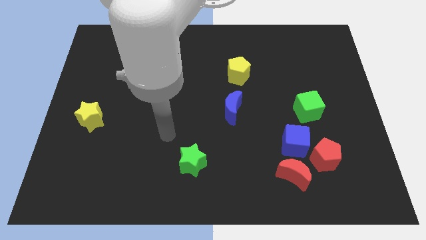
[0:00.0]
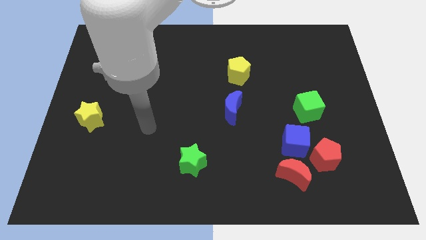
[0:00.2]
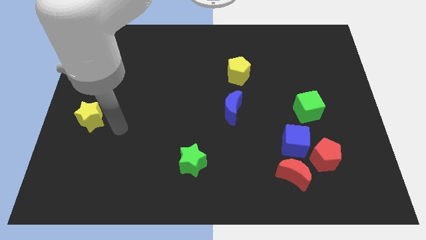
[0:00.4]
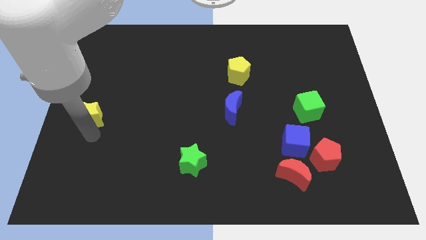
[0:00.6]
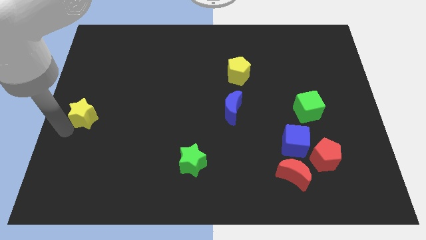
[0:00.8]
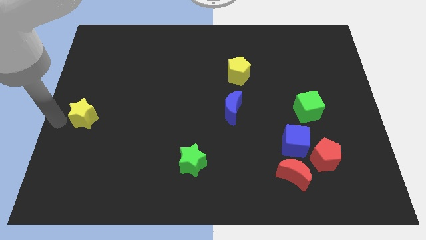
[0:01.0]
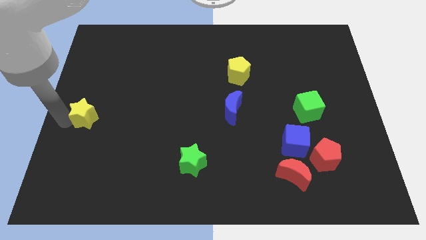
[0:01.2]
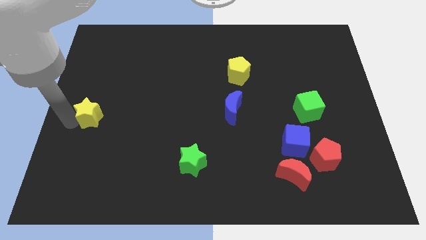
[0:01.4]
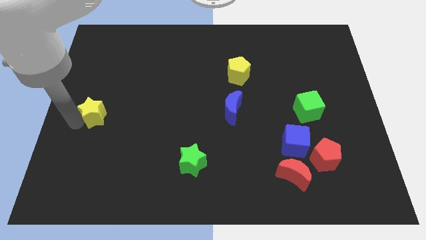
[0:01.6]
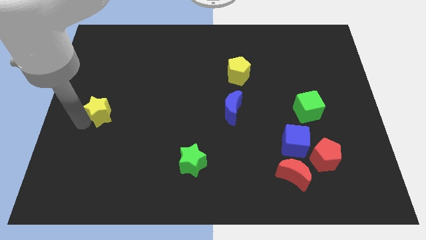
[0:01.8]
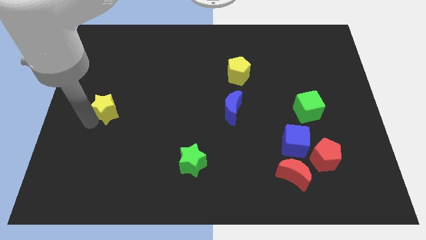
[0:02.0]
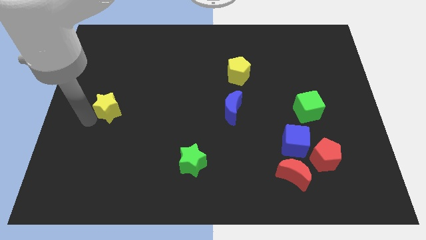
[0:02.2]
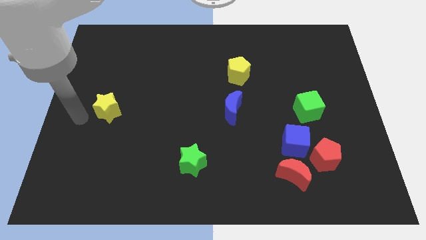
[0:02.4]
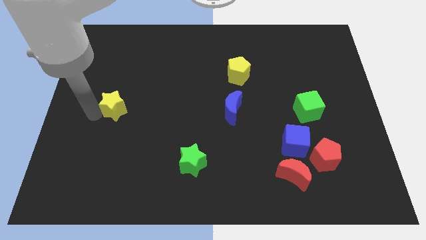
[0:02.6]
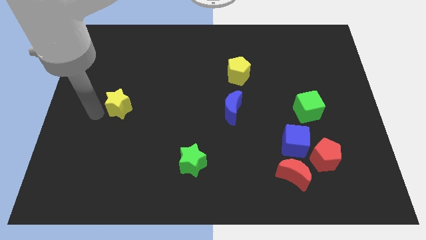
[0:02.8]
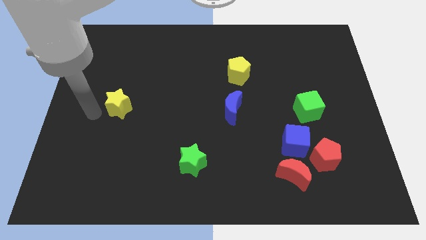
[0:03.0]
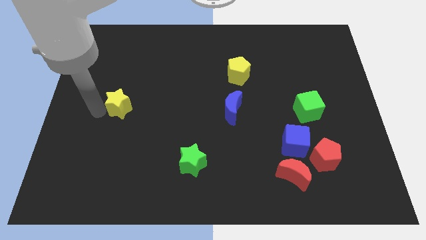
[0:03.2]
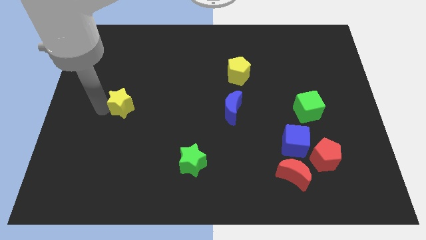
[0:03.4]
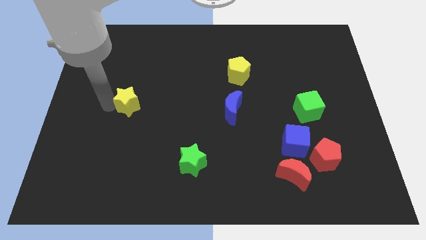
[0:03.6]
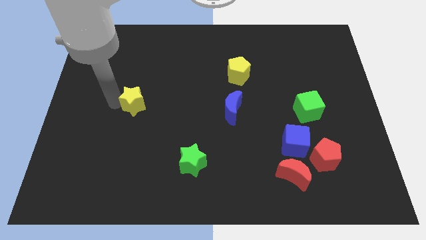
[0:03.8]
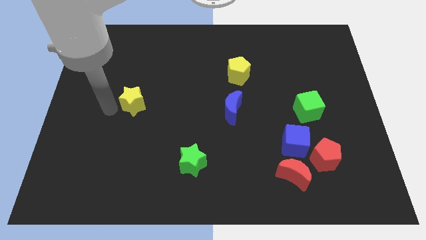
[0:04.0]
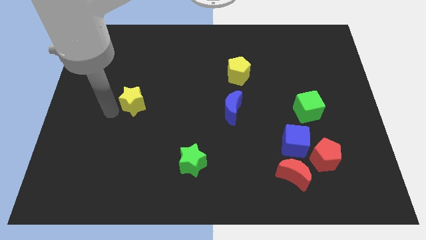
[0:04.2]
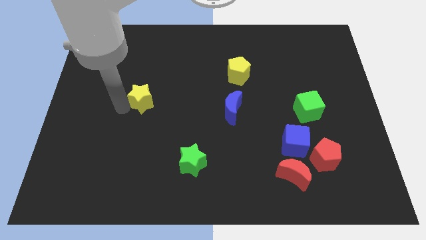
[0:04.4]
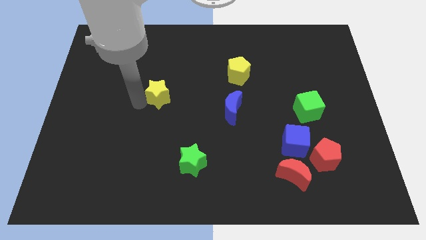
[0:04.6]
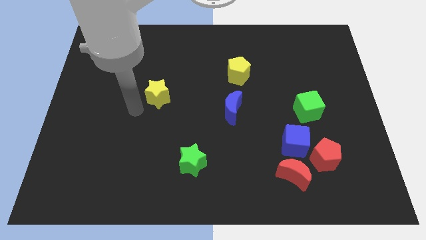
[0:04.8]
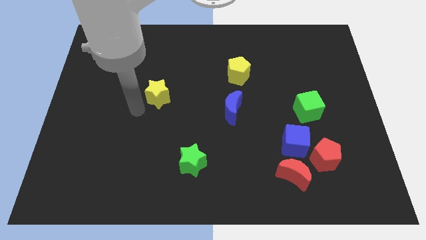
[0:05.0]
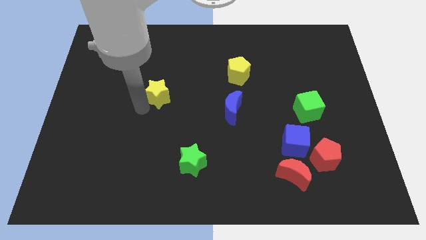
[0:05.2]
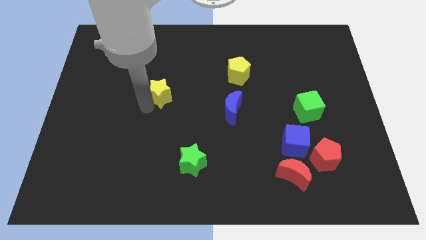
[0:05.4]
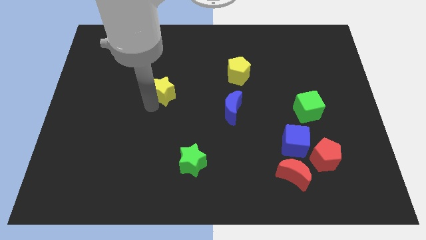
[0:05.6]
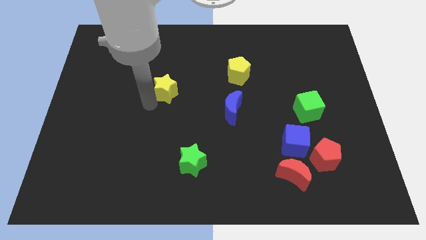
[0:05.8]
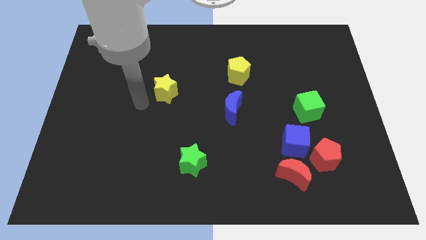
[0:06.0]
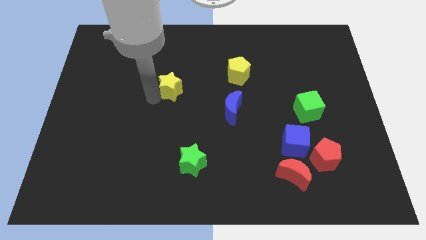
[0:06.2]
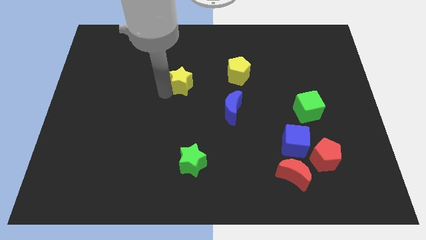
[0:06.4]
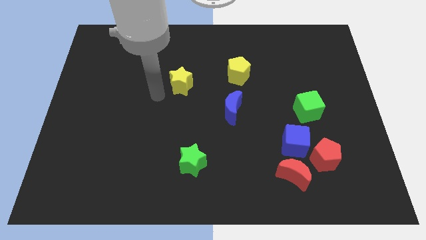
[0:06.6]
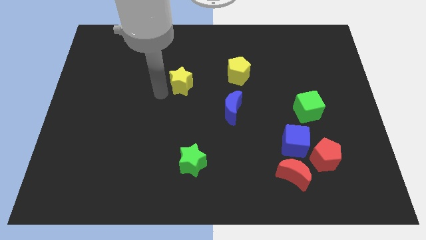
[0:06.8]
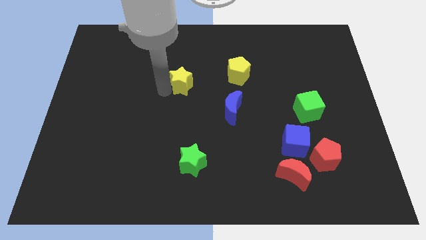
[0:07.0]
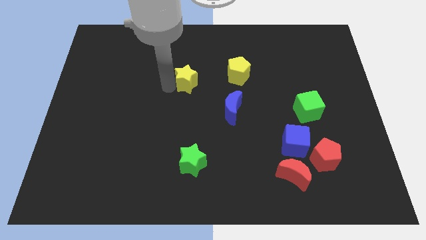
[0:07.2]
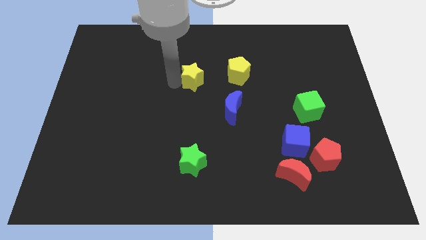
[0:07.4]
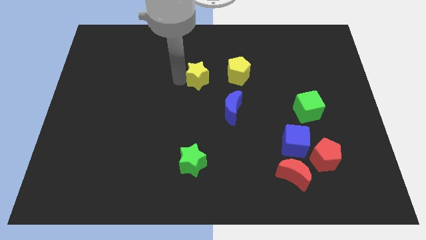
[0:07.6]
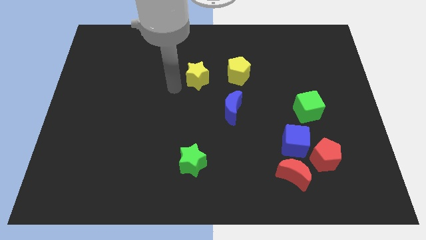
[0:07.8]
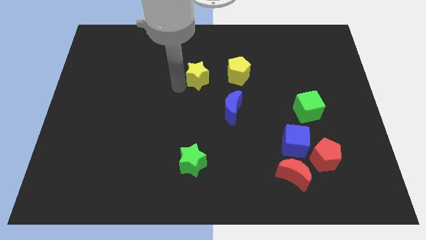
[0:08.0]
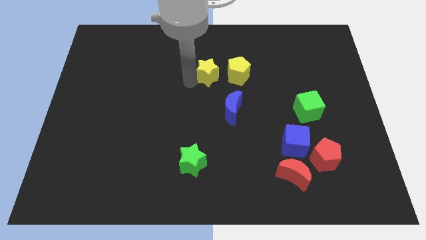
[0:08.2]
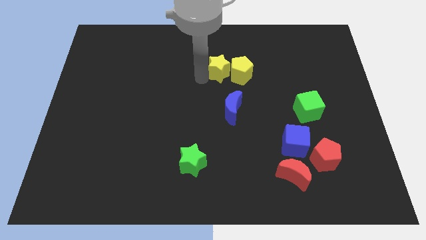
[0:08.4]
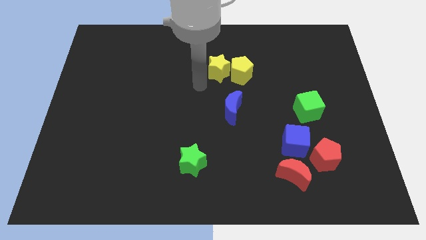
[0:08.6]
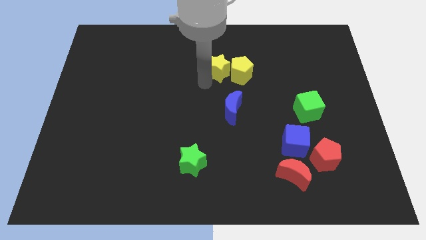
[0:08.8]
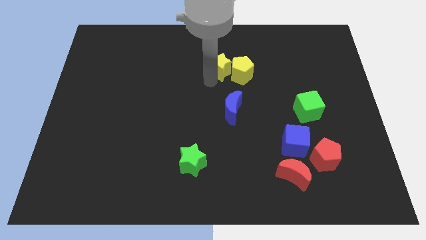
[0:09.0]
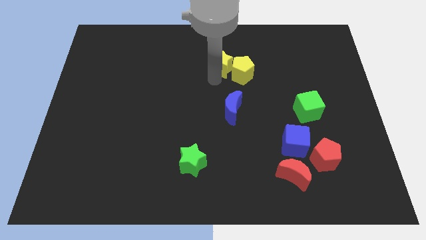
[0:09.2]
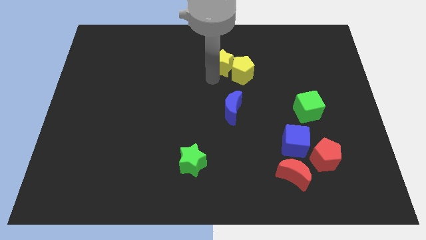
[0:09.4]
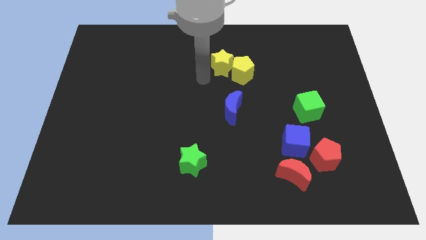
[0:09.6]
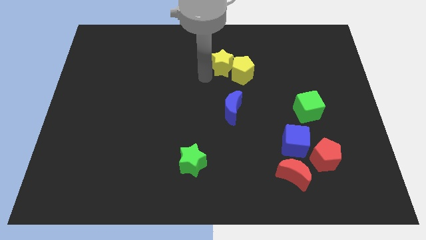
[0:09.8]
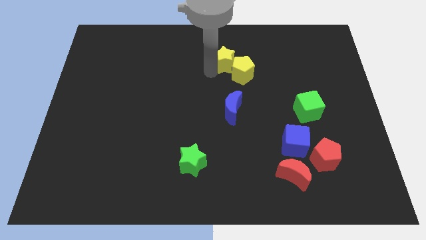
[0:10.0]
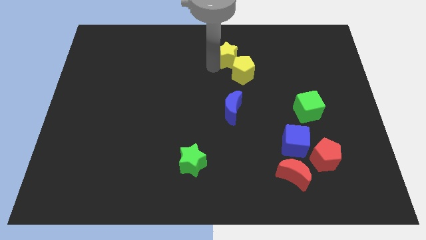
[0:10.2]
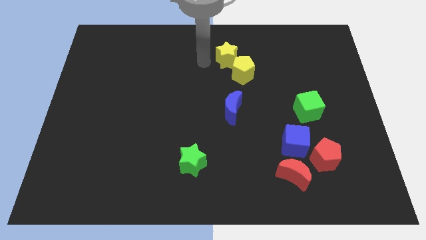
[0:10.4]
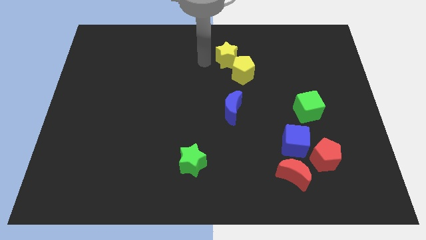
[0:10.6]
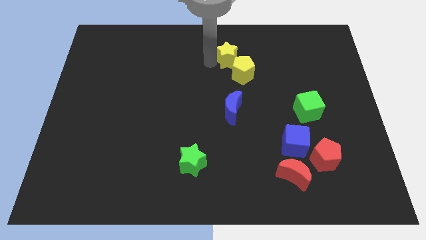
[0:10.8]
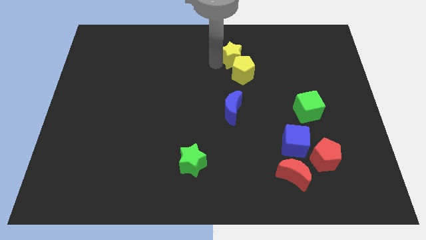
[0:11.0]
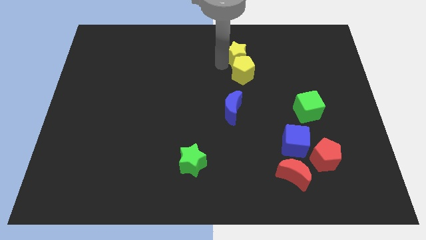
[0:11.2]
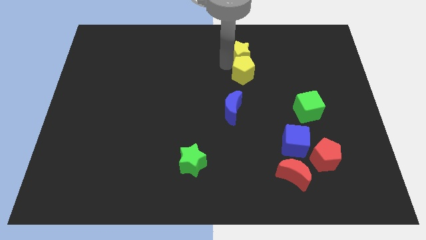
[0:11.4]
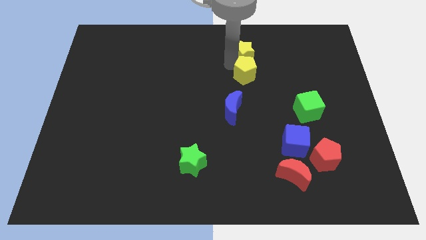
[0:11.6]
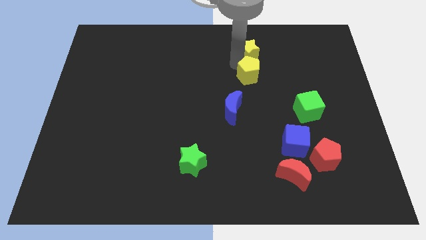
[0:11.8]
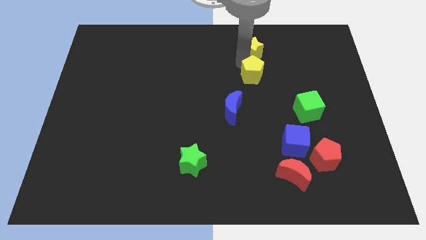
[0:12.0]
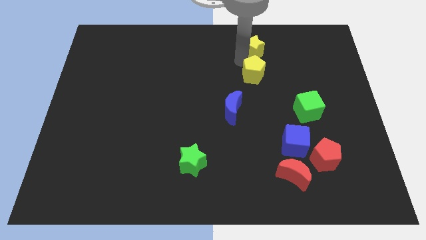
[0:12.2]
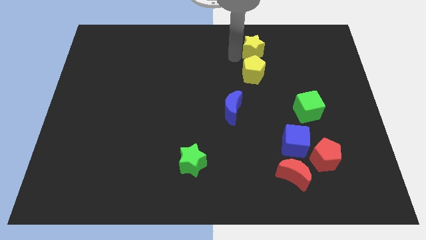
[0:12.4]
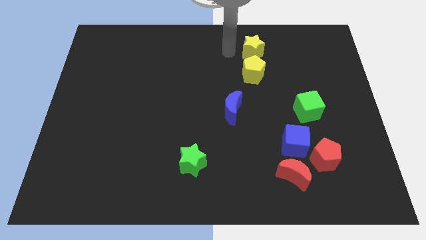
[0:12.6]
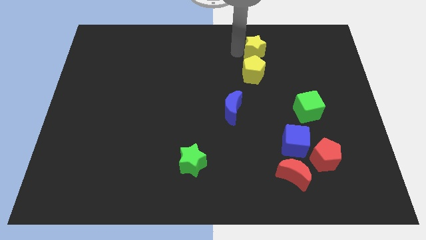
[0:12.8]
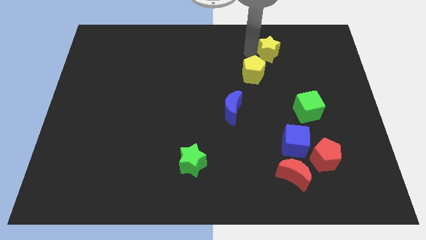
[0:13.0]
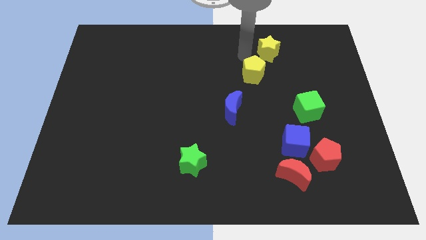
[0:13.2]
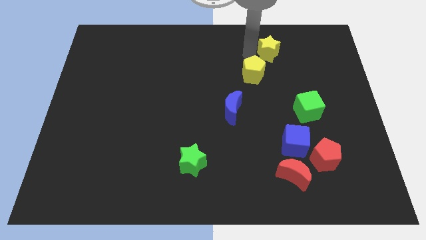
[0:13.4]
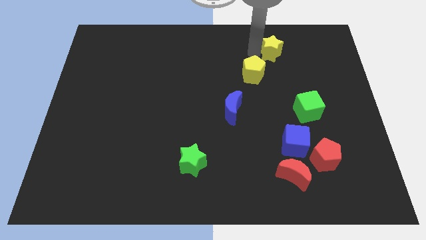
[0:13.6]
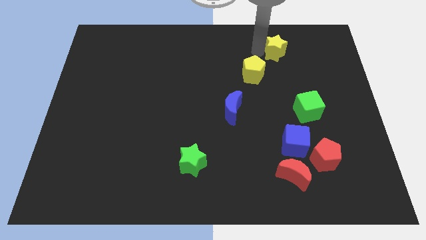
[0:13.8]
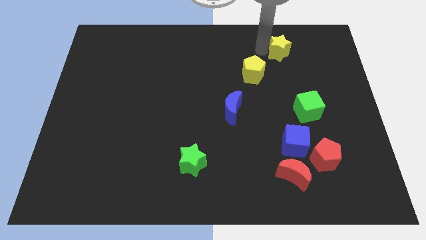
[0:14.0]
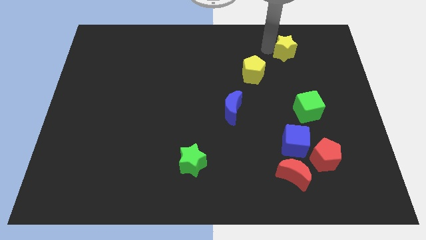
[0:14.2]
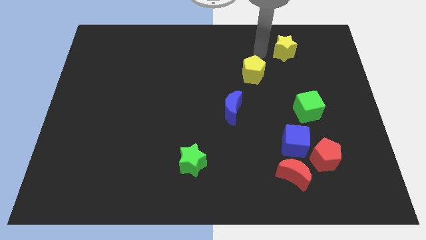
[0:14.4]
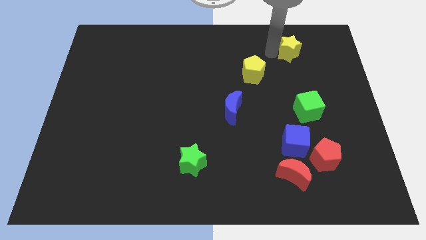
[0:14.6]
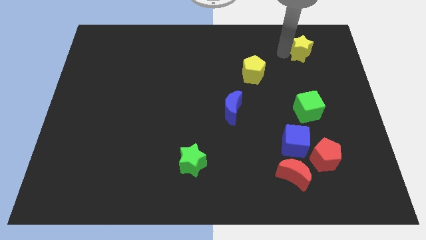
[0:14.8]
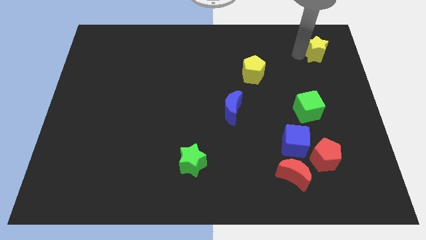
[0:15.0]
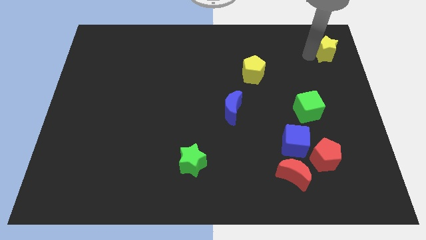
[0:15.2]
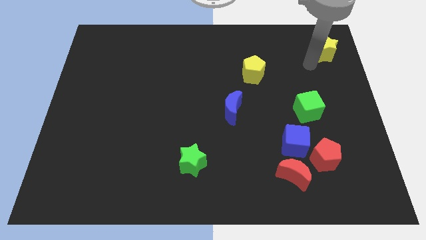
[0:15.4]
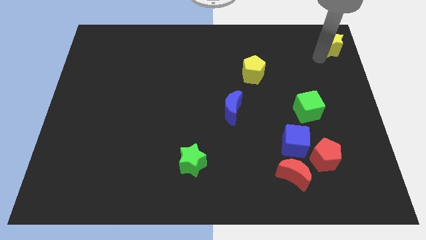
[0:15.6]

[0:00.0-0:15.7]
move the yellow star to the upper right corner
